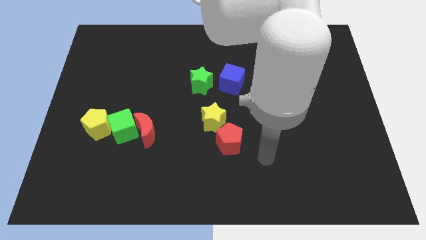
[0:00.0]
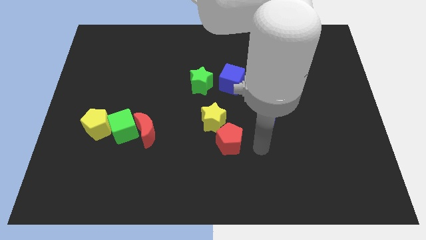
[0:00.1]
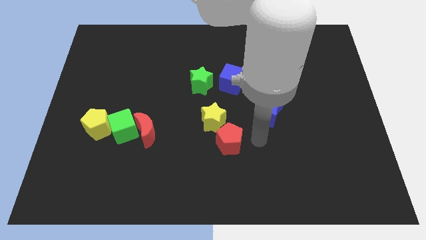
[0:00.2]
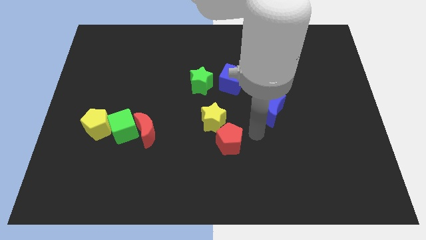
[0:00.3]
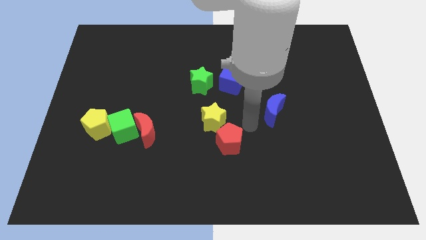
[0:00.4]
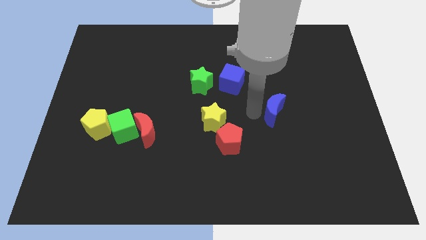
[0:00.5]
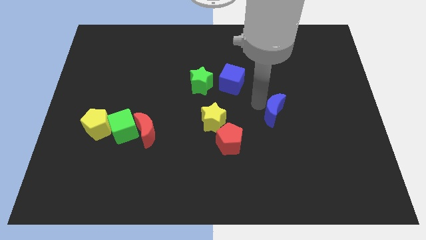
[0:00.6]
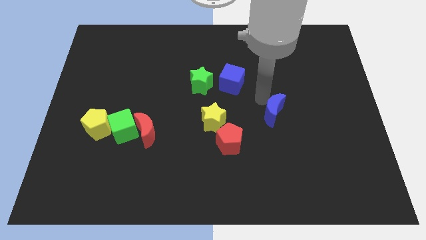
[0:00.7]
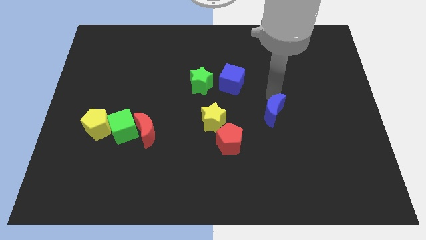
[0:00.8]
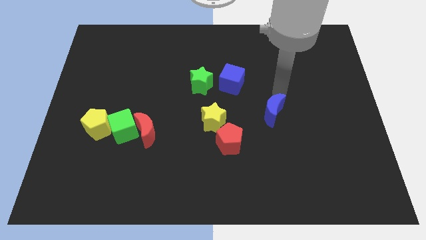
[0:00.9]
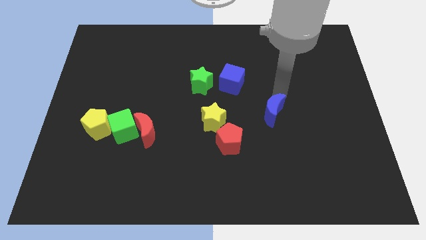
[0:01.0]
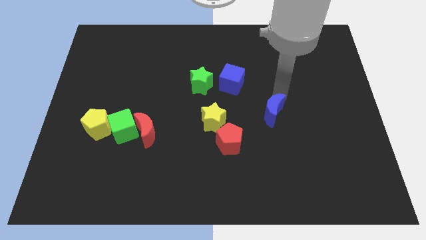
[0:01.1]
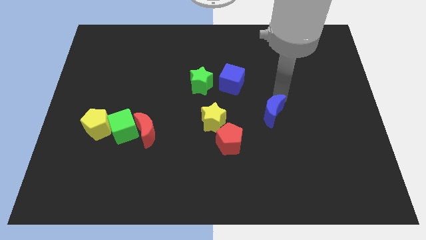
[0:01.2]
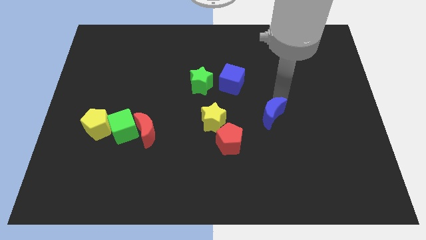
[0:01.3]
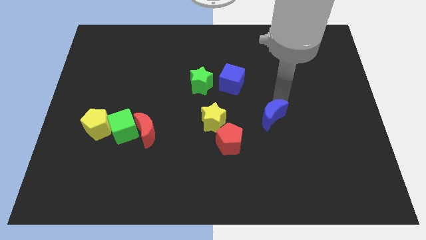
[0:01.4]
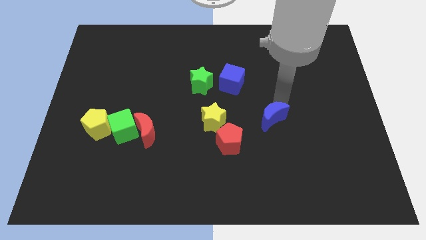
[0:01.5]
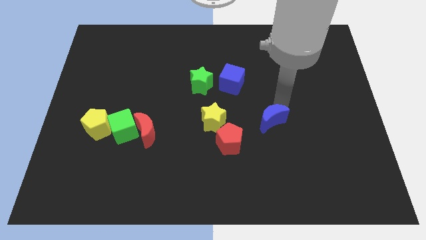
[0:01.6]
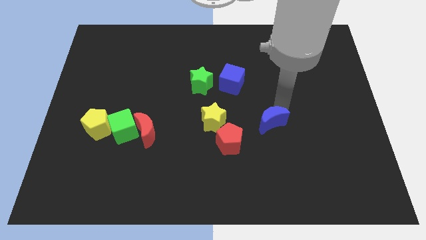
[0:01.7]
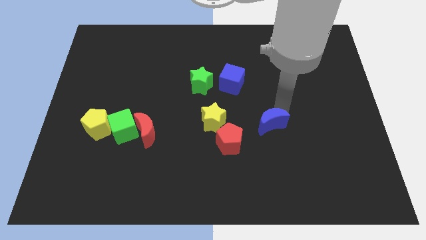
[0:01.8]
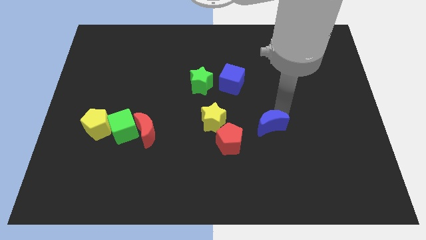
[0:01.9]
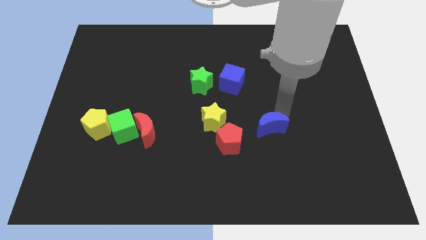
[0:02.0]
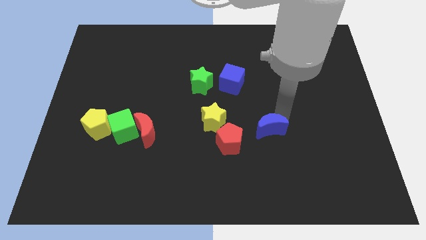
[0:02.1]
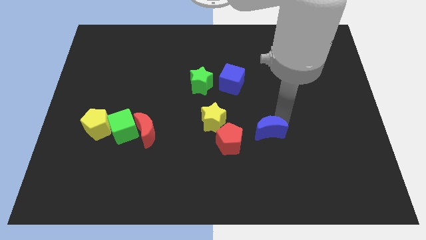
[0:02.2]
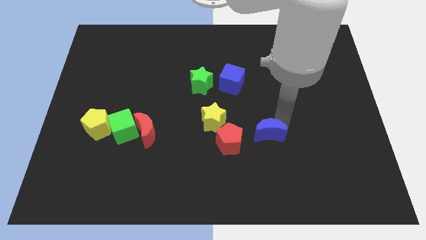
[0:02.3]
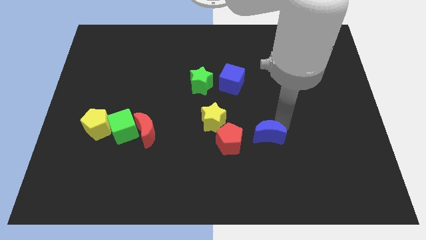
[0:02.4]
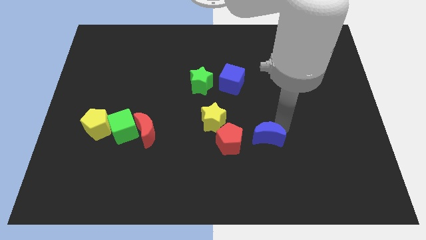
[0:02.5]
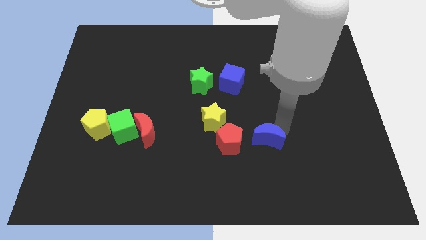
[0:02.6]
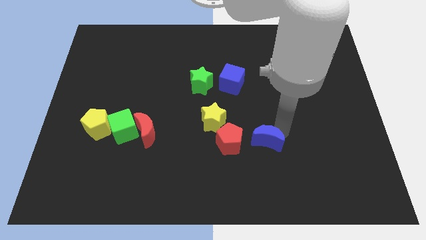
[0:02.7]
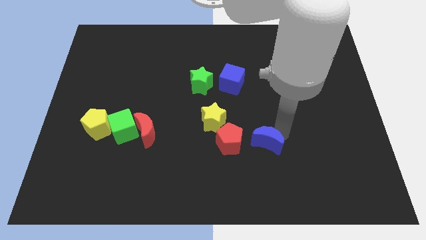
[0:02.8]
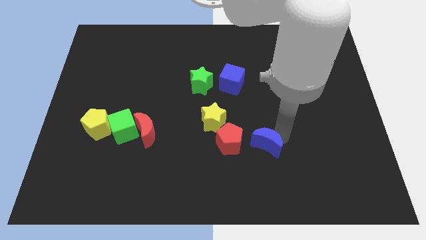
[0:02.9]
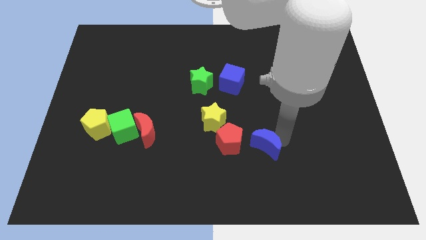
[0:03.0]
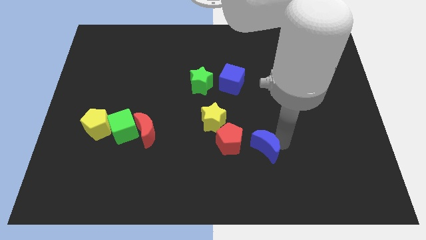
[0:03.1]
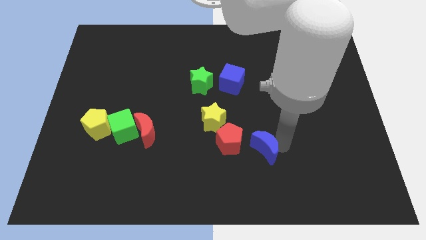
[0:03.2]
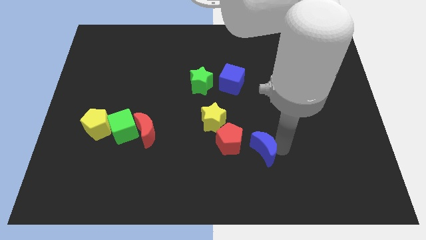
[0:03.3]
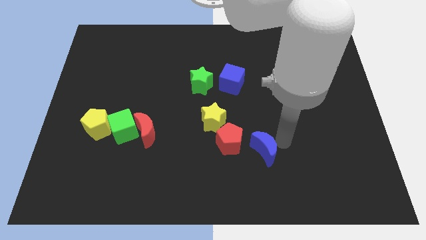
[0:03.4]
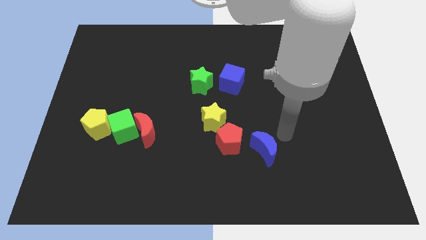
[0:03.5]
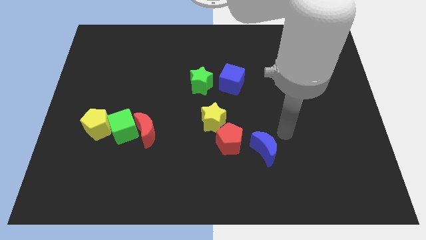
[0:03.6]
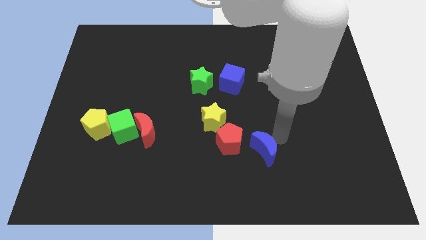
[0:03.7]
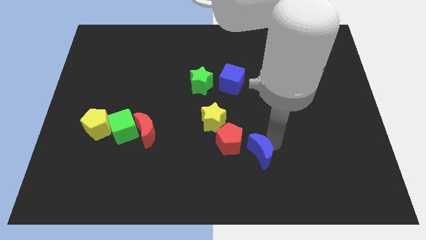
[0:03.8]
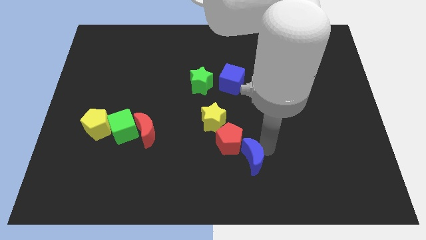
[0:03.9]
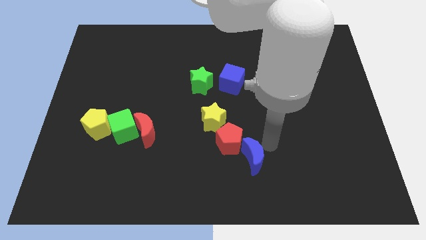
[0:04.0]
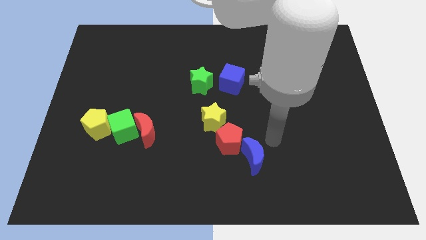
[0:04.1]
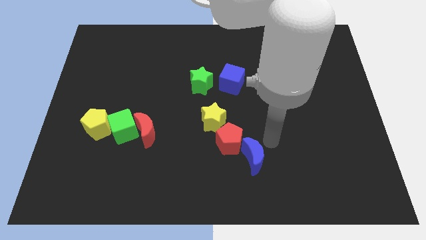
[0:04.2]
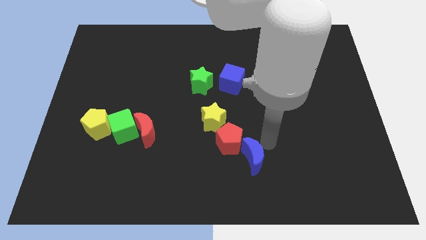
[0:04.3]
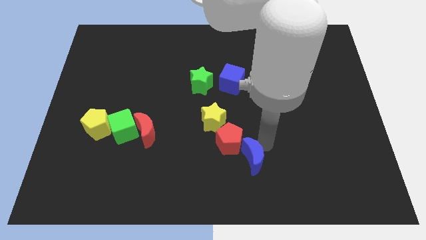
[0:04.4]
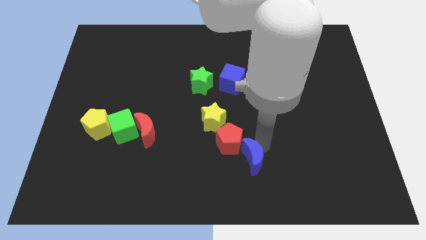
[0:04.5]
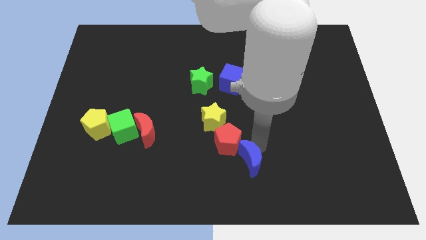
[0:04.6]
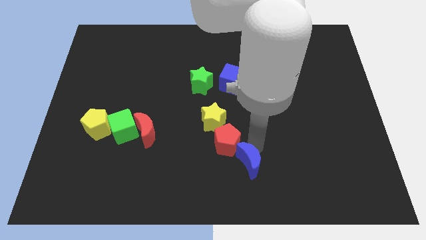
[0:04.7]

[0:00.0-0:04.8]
move the blue moon to the bottom side

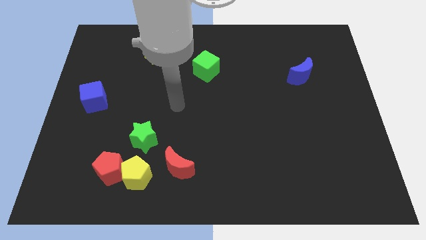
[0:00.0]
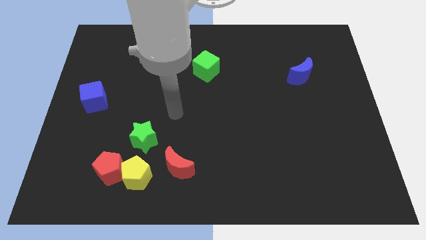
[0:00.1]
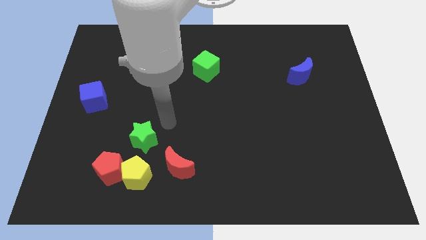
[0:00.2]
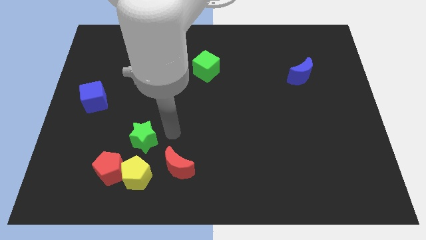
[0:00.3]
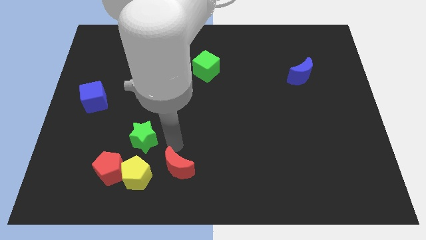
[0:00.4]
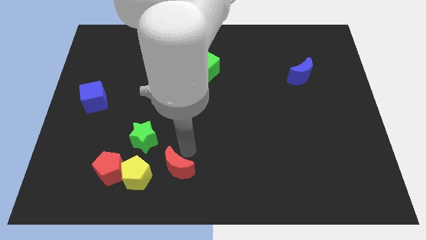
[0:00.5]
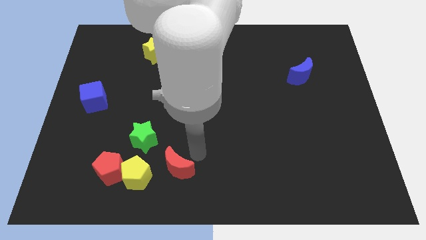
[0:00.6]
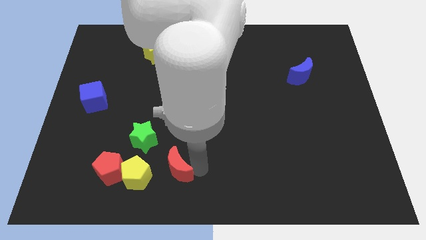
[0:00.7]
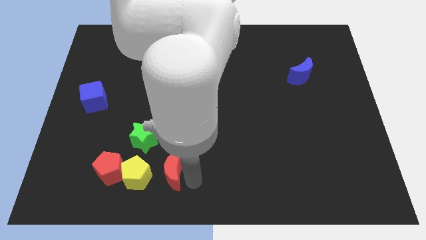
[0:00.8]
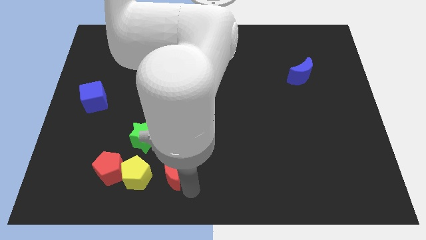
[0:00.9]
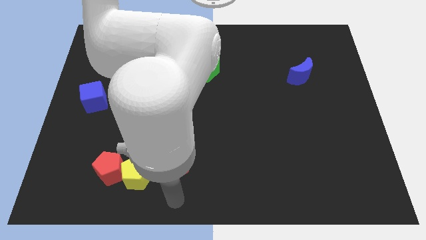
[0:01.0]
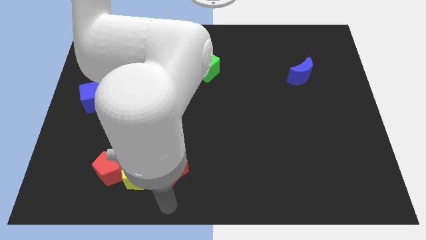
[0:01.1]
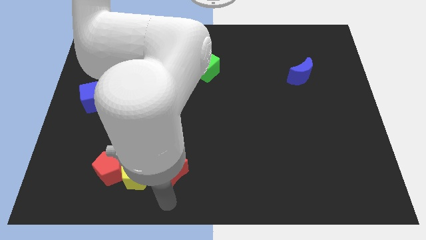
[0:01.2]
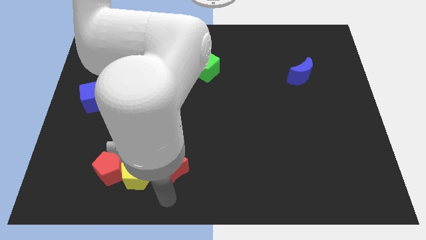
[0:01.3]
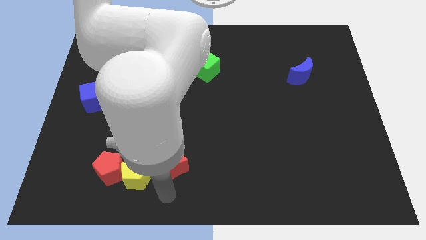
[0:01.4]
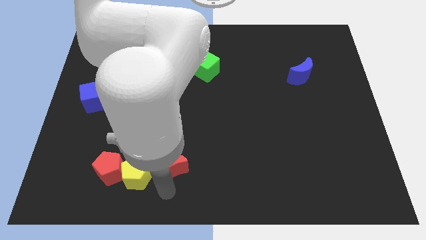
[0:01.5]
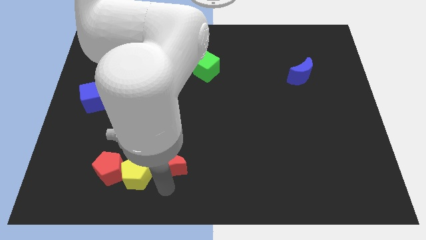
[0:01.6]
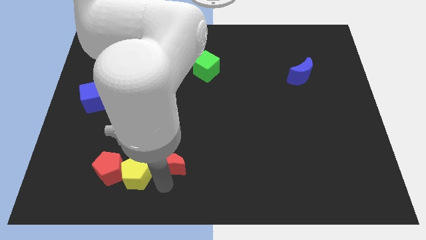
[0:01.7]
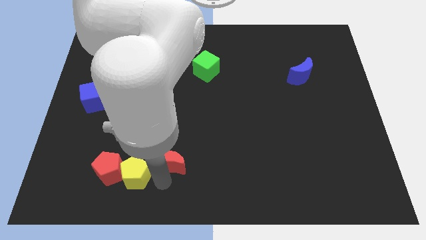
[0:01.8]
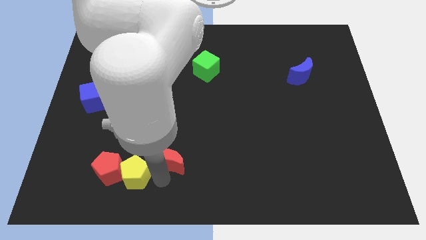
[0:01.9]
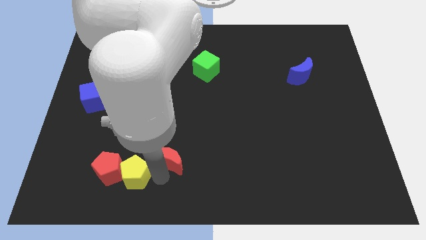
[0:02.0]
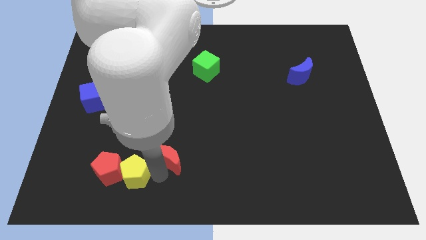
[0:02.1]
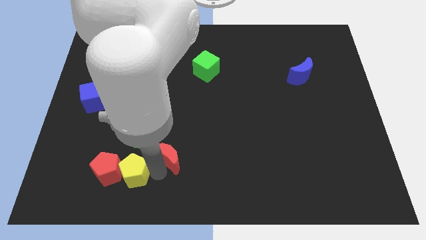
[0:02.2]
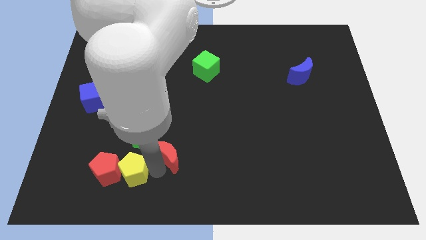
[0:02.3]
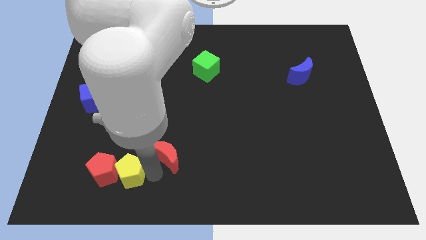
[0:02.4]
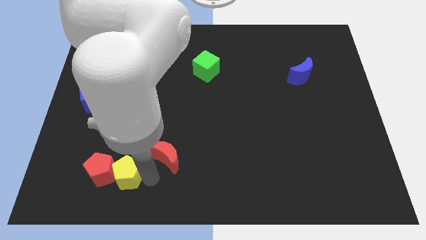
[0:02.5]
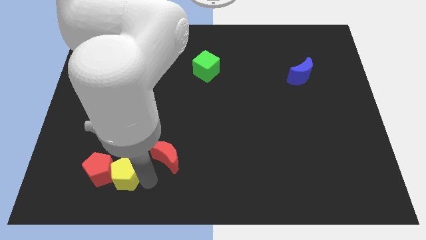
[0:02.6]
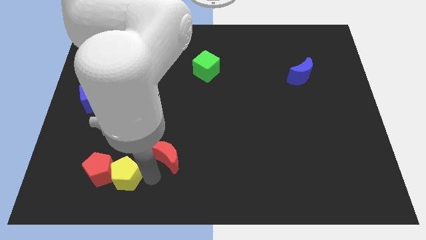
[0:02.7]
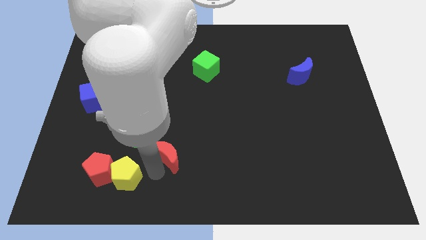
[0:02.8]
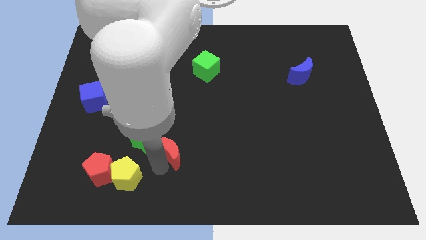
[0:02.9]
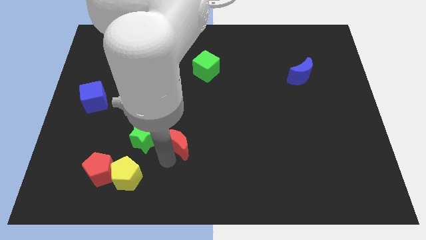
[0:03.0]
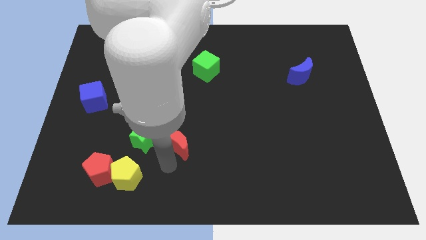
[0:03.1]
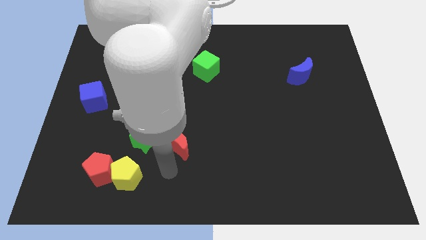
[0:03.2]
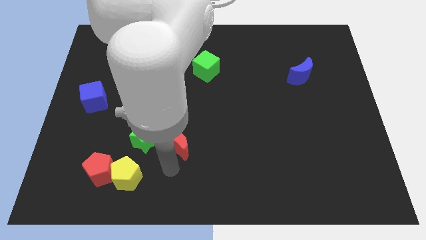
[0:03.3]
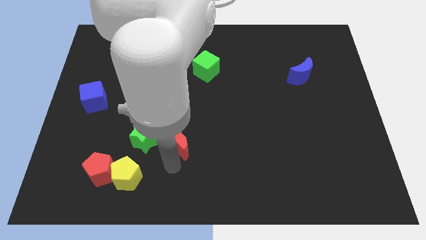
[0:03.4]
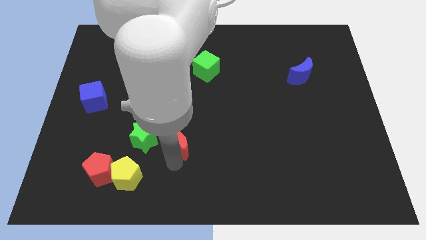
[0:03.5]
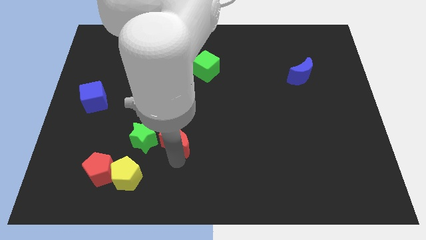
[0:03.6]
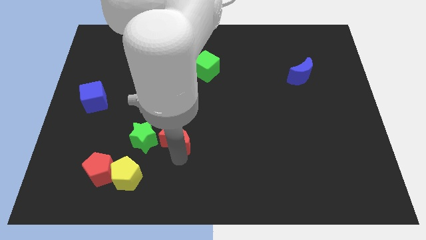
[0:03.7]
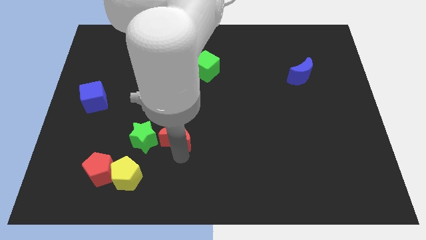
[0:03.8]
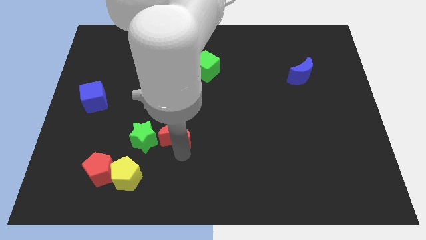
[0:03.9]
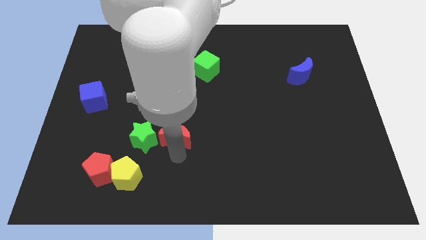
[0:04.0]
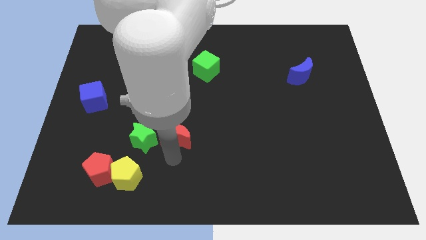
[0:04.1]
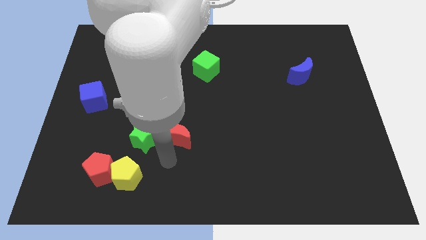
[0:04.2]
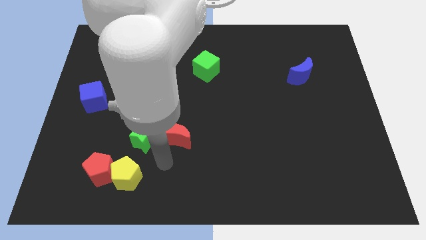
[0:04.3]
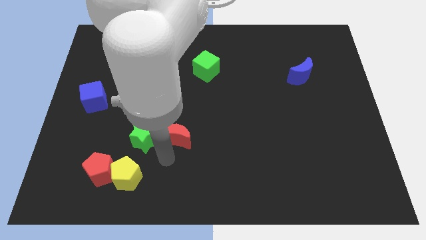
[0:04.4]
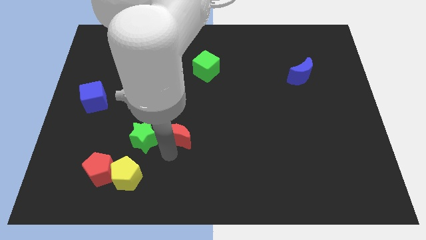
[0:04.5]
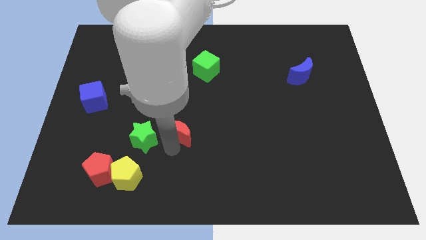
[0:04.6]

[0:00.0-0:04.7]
slide the red moon to the center of the board
